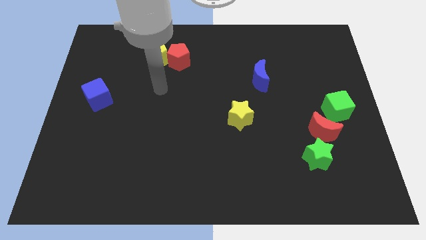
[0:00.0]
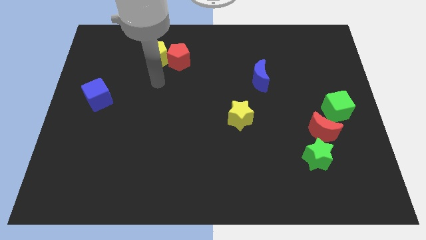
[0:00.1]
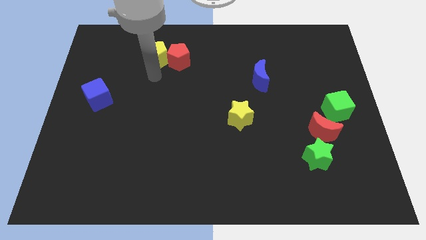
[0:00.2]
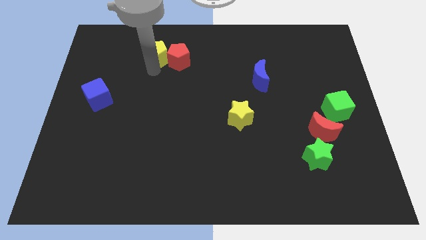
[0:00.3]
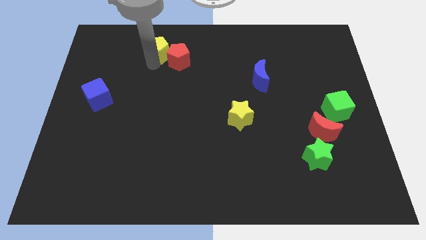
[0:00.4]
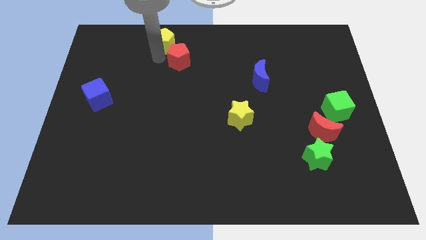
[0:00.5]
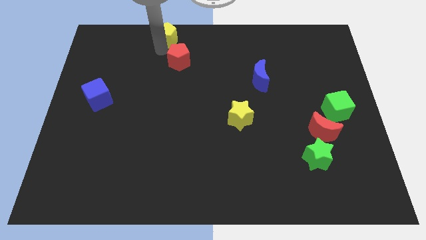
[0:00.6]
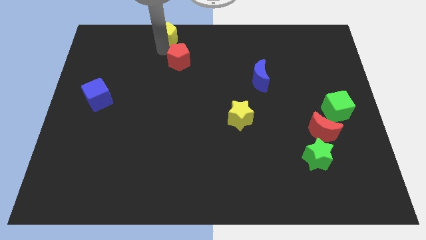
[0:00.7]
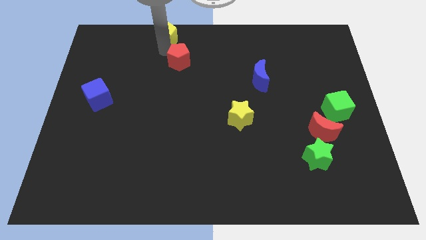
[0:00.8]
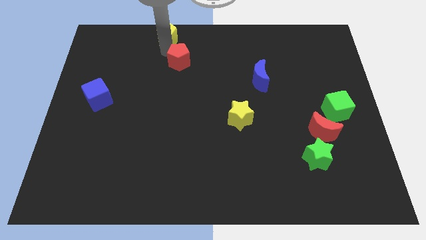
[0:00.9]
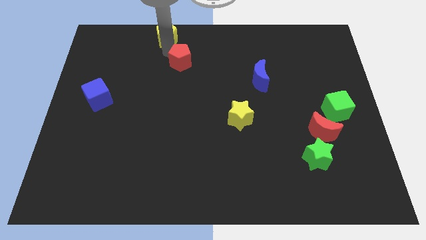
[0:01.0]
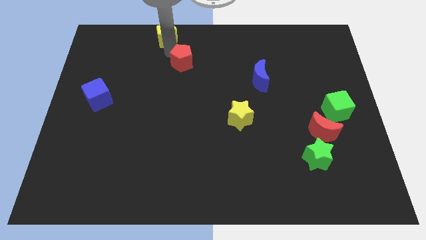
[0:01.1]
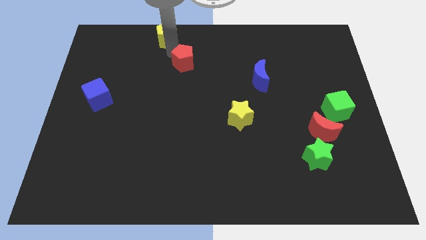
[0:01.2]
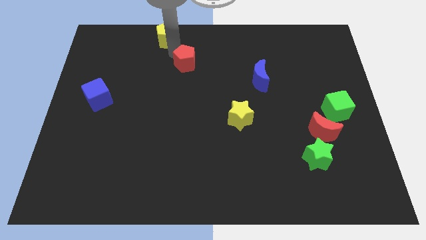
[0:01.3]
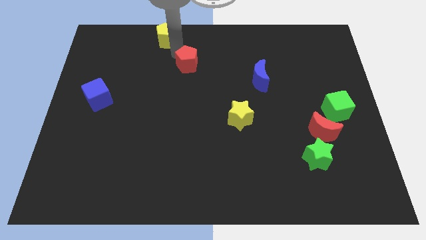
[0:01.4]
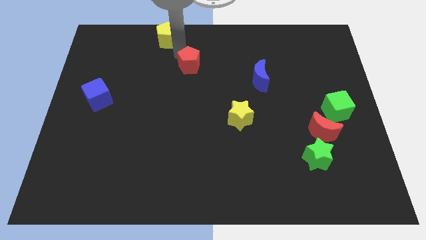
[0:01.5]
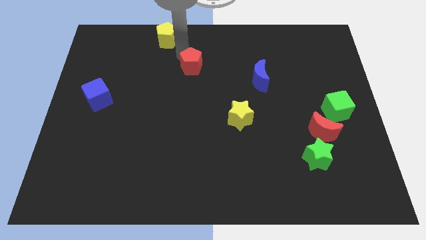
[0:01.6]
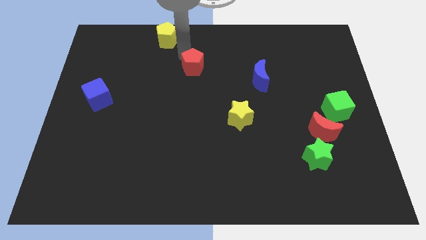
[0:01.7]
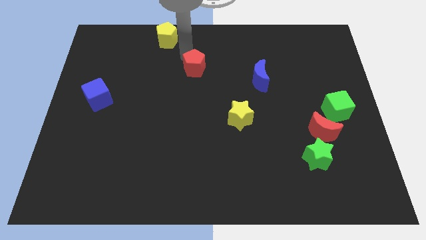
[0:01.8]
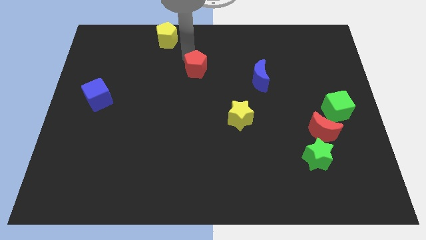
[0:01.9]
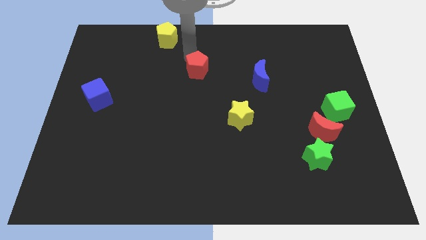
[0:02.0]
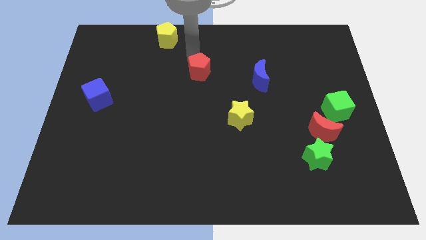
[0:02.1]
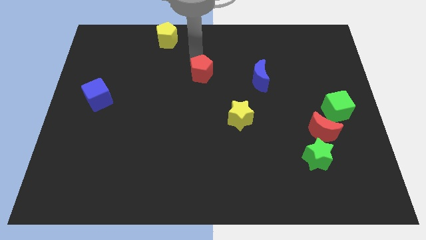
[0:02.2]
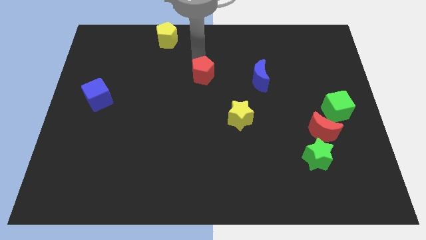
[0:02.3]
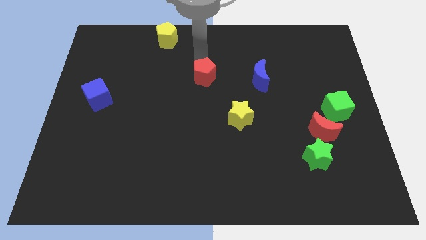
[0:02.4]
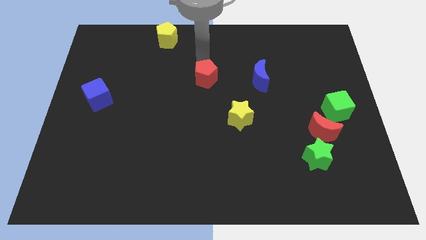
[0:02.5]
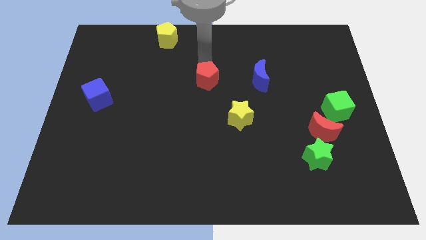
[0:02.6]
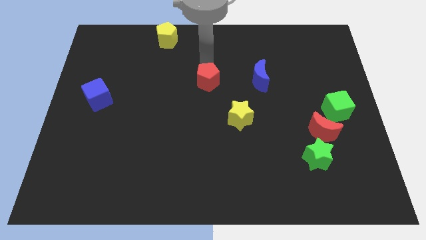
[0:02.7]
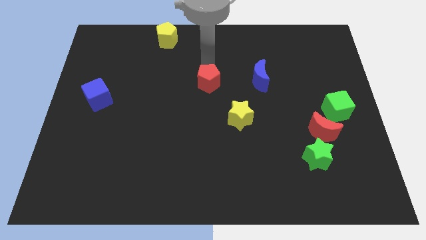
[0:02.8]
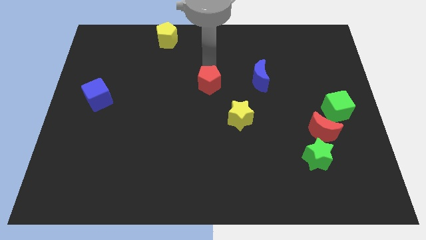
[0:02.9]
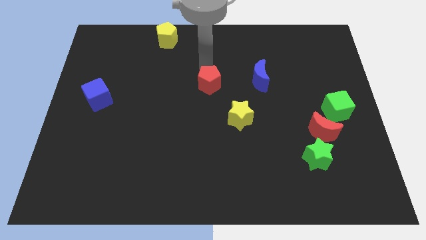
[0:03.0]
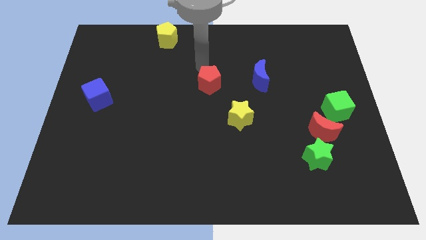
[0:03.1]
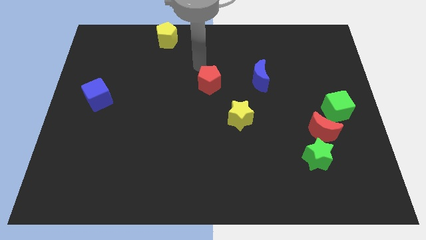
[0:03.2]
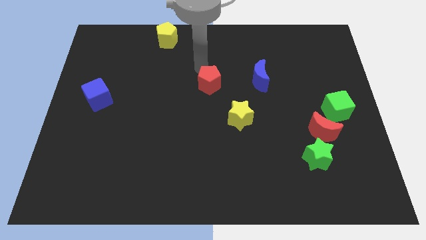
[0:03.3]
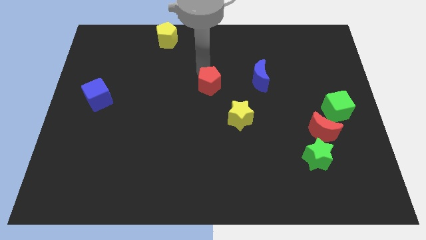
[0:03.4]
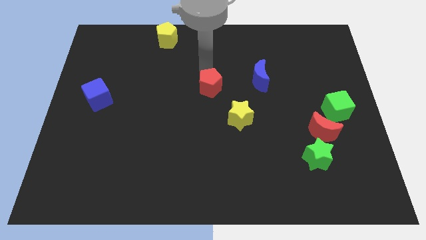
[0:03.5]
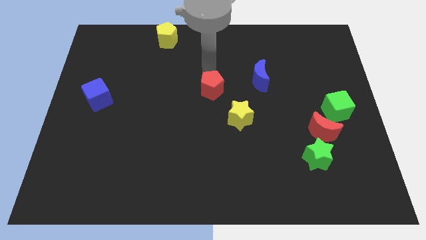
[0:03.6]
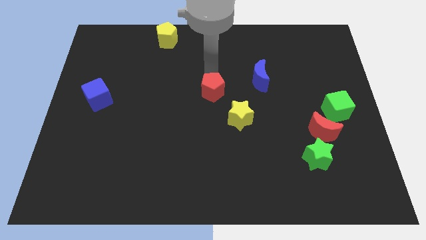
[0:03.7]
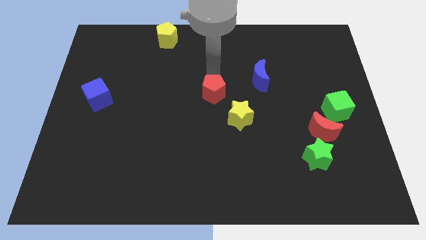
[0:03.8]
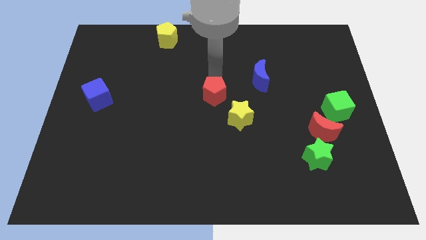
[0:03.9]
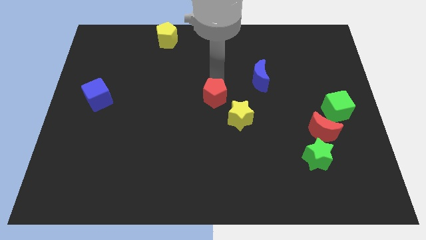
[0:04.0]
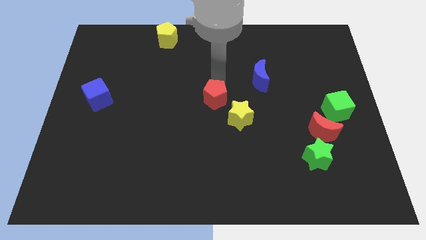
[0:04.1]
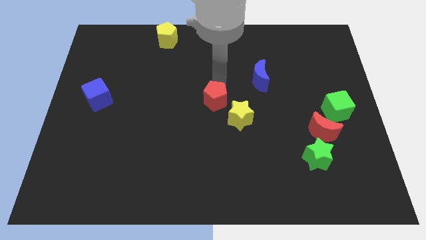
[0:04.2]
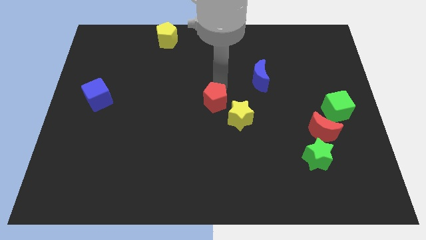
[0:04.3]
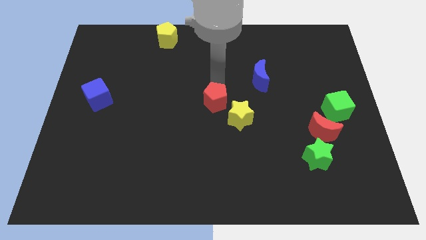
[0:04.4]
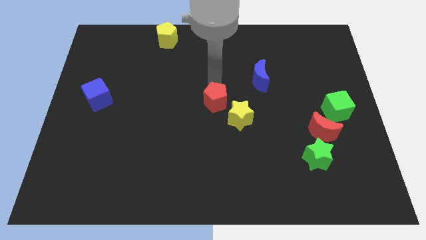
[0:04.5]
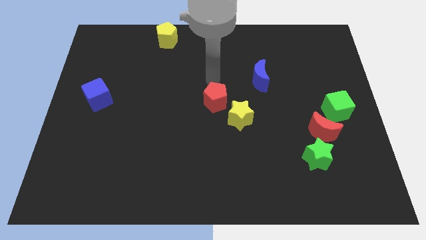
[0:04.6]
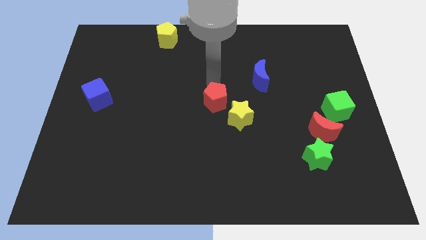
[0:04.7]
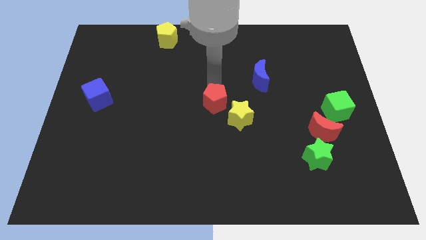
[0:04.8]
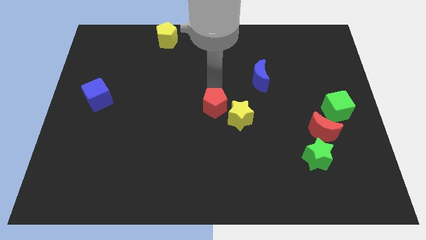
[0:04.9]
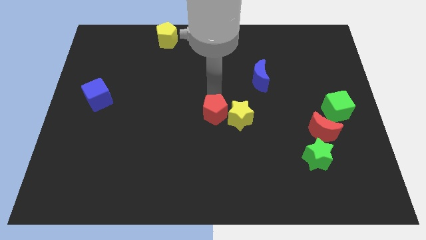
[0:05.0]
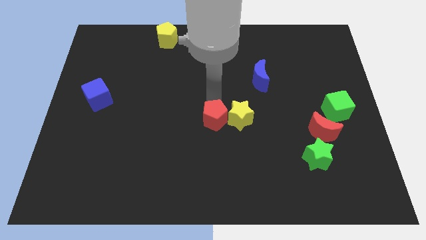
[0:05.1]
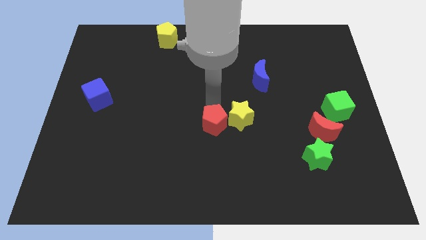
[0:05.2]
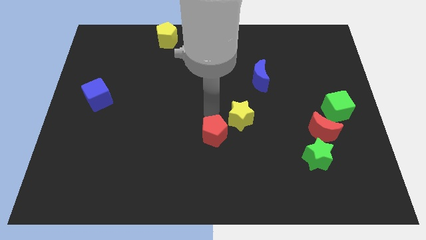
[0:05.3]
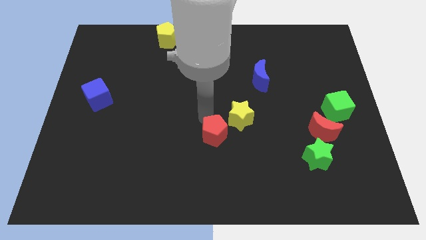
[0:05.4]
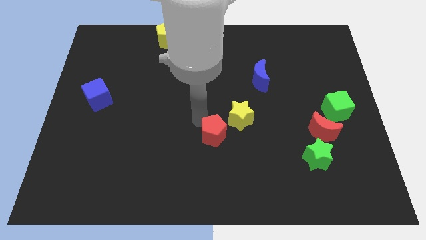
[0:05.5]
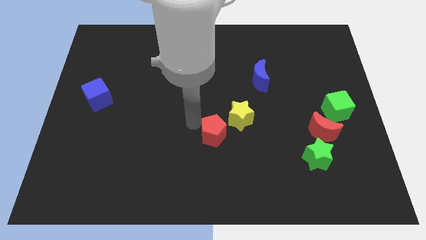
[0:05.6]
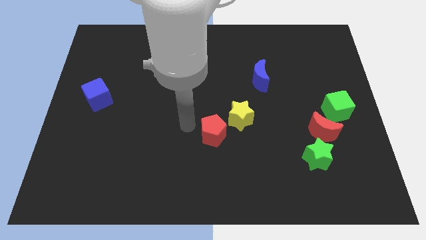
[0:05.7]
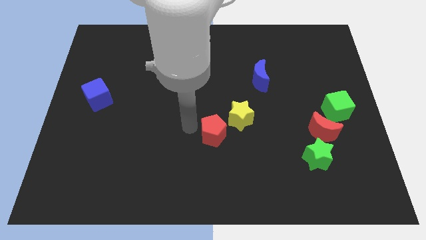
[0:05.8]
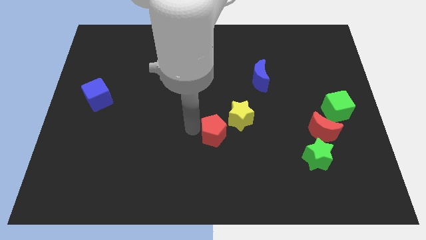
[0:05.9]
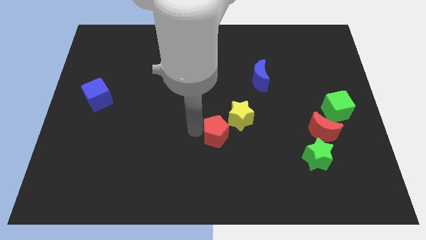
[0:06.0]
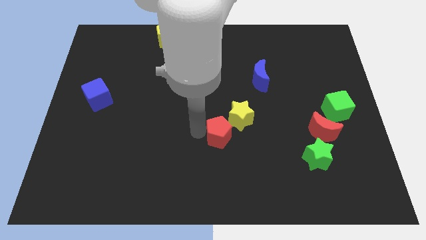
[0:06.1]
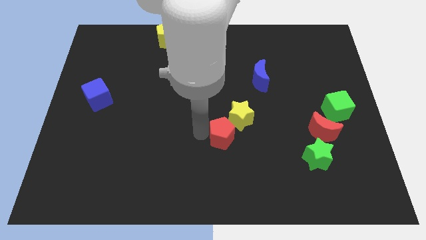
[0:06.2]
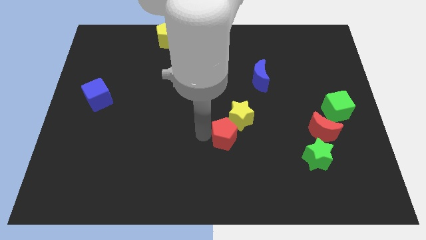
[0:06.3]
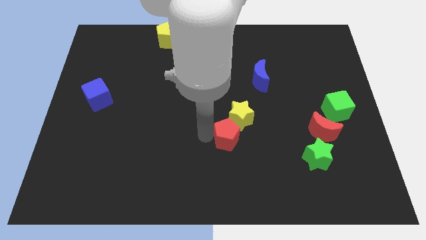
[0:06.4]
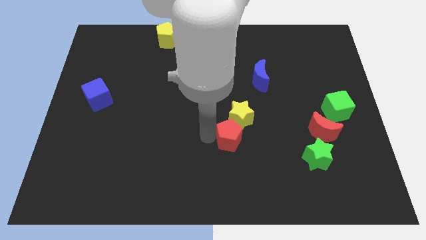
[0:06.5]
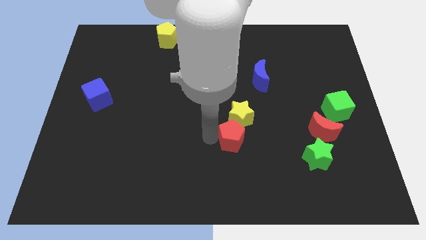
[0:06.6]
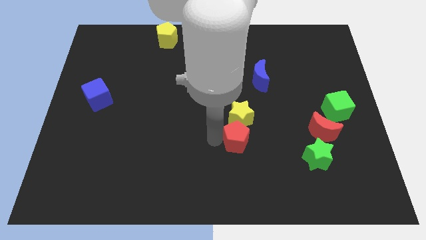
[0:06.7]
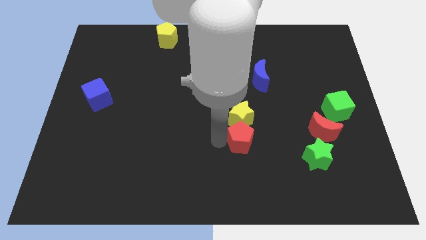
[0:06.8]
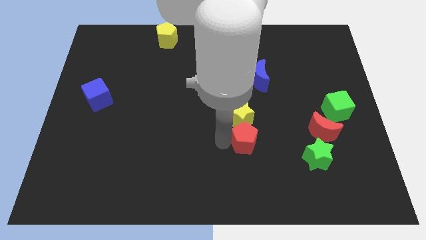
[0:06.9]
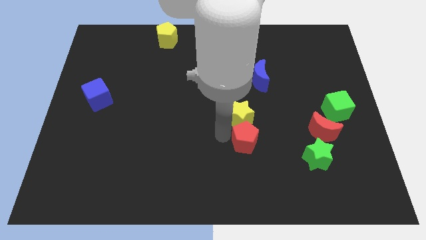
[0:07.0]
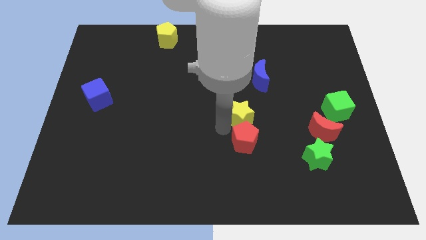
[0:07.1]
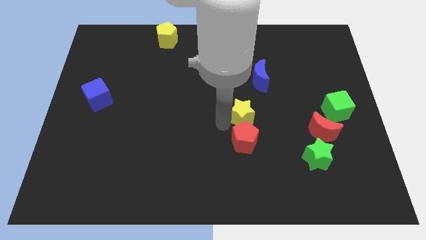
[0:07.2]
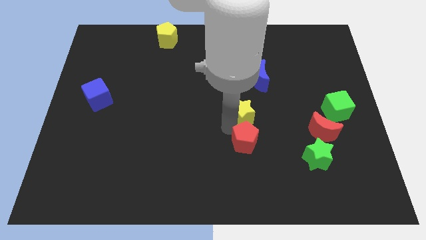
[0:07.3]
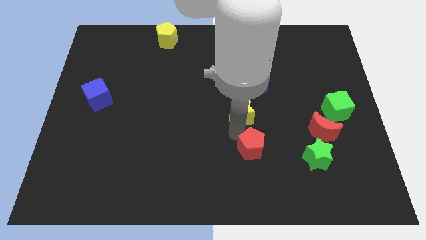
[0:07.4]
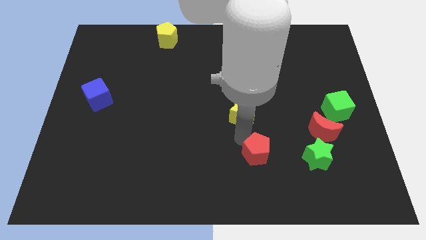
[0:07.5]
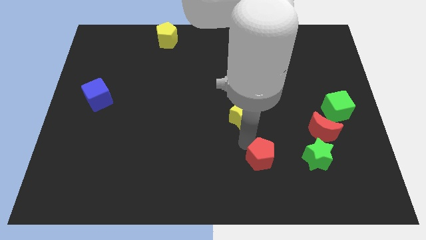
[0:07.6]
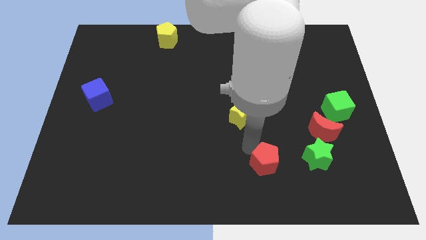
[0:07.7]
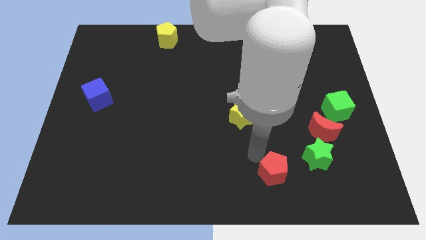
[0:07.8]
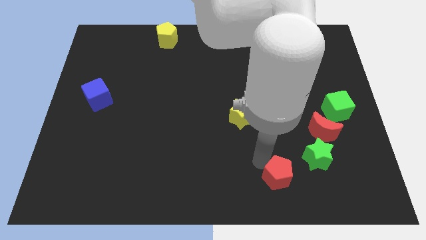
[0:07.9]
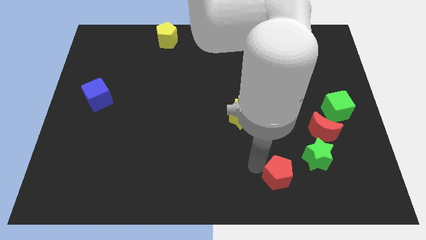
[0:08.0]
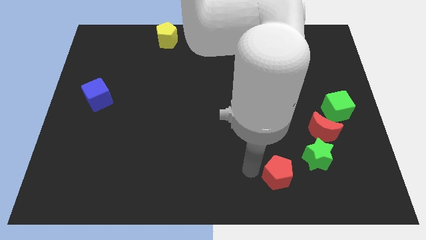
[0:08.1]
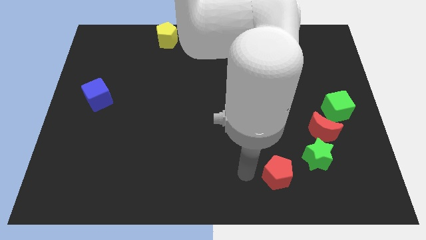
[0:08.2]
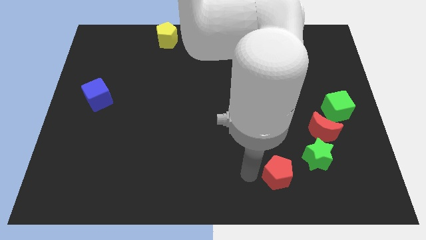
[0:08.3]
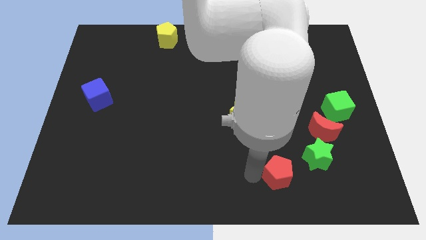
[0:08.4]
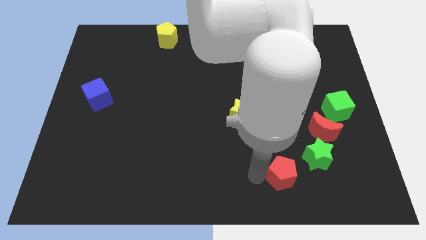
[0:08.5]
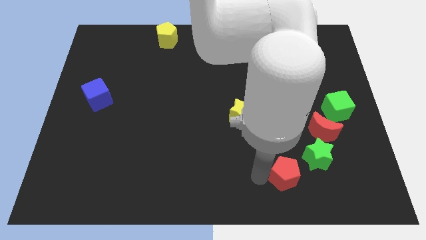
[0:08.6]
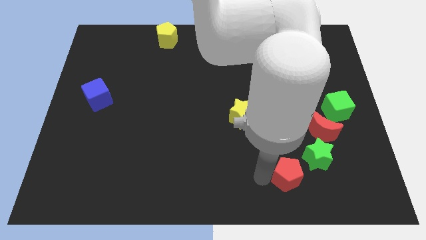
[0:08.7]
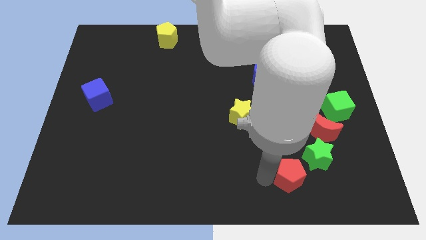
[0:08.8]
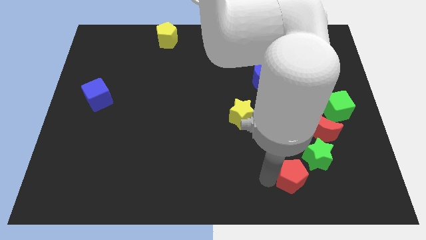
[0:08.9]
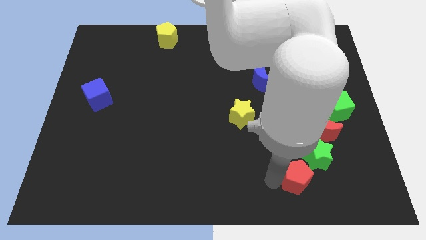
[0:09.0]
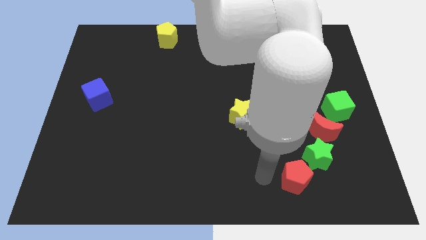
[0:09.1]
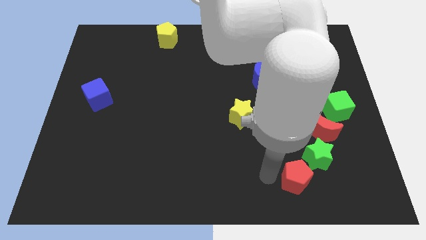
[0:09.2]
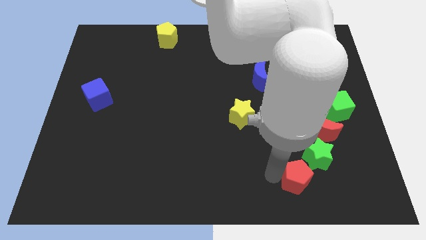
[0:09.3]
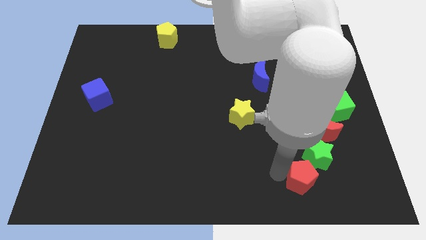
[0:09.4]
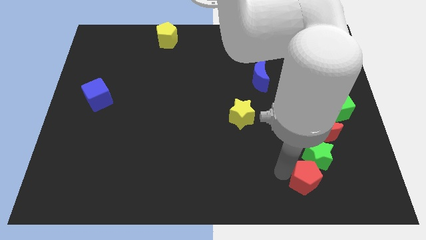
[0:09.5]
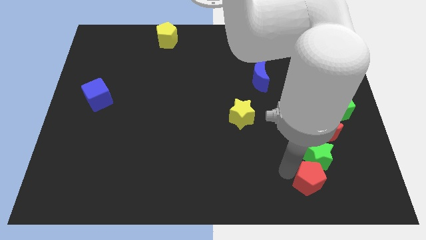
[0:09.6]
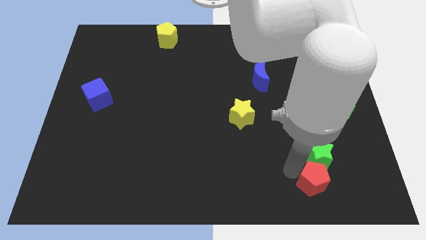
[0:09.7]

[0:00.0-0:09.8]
slide the red pentagon to the bottom right side of the green star
